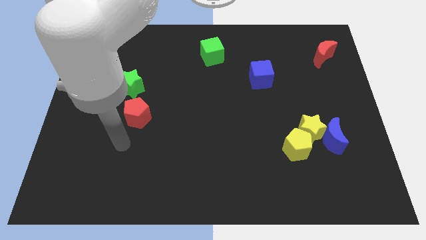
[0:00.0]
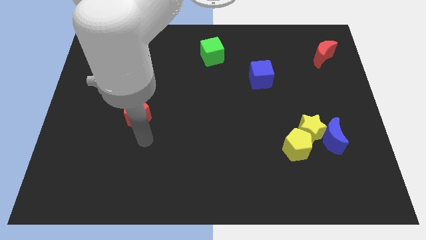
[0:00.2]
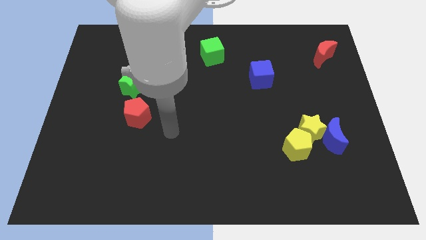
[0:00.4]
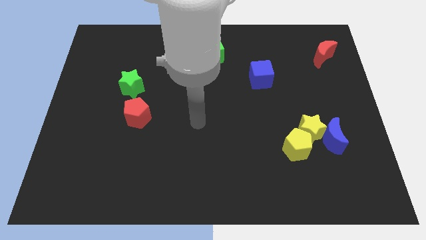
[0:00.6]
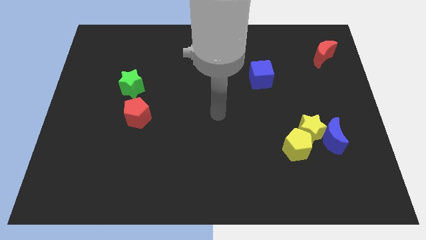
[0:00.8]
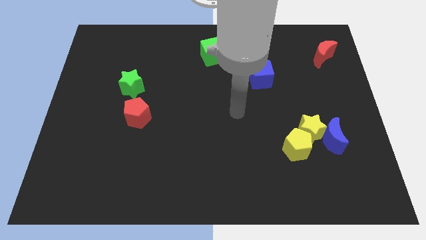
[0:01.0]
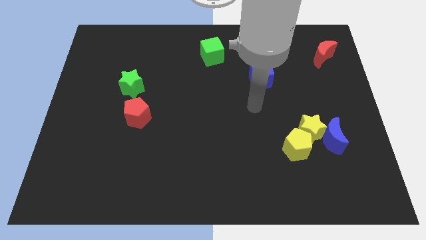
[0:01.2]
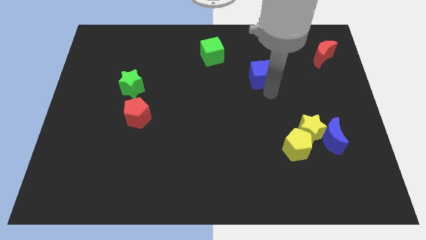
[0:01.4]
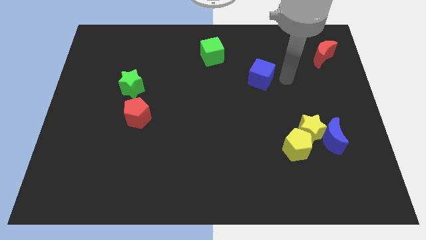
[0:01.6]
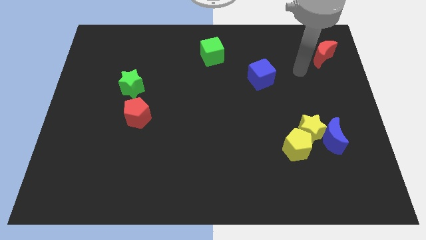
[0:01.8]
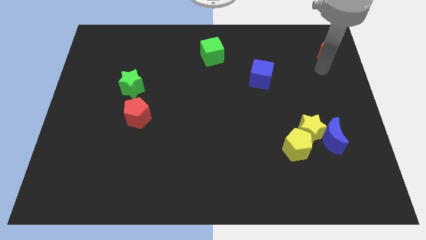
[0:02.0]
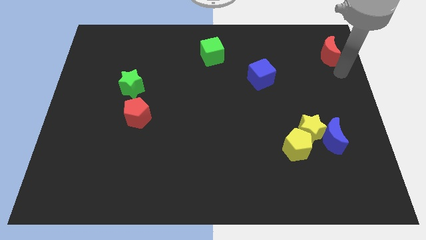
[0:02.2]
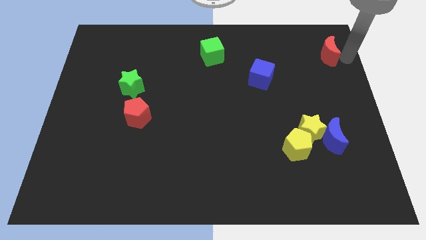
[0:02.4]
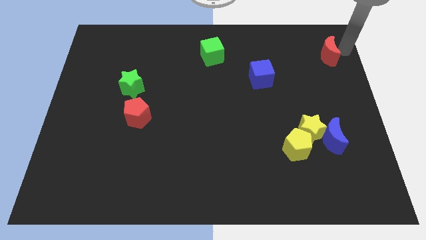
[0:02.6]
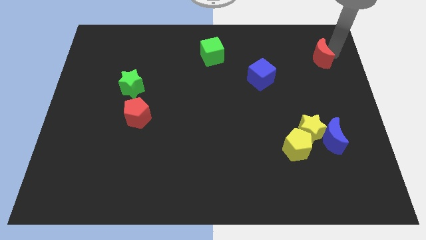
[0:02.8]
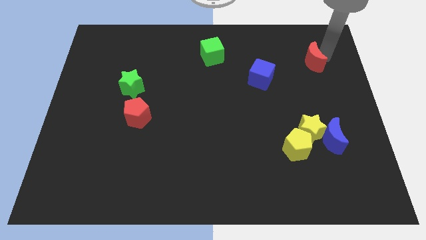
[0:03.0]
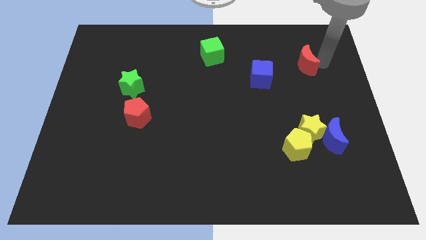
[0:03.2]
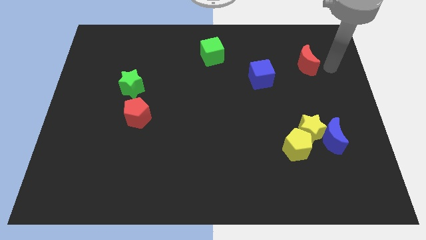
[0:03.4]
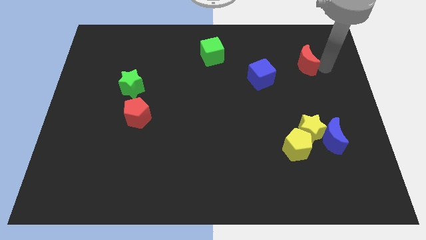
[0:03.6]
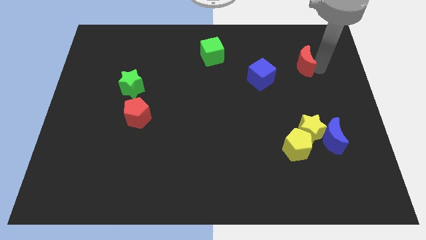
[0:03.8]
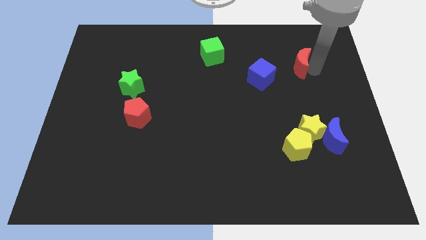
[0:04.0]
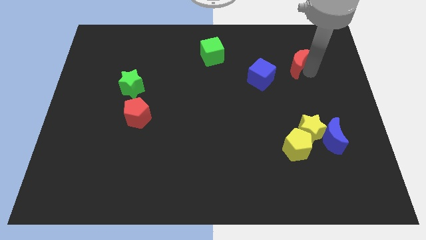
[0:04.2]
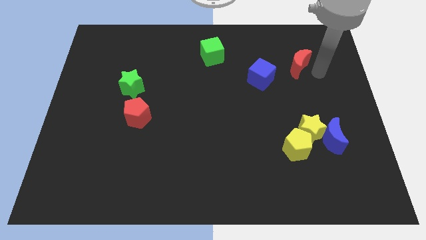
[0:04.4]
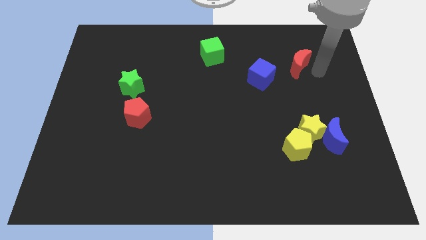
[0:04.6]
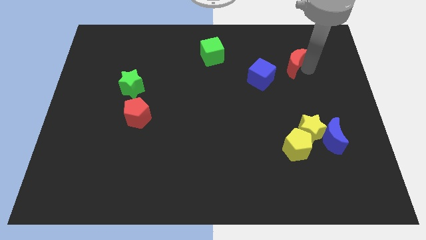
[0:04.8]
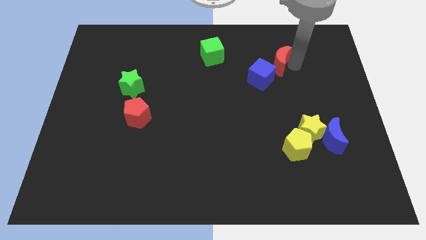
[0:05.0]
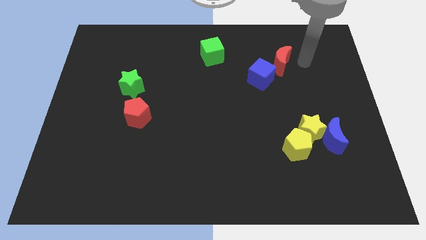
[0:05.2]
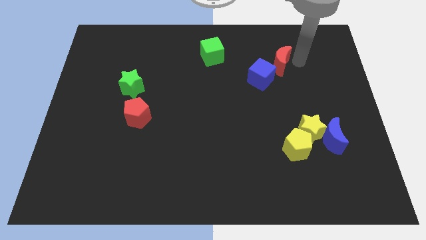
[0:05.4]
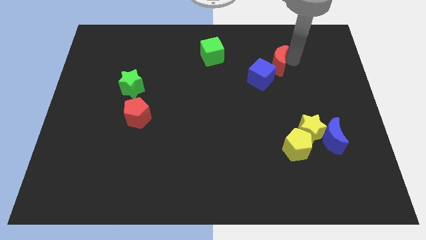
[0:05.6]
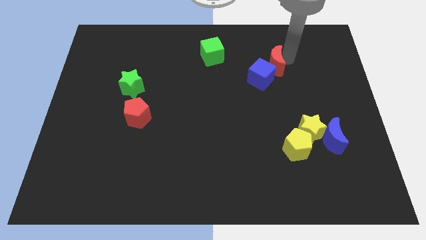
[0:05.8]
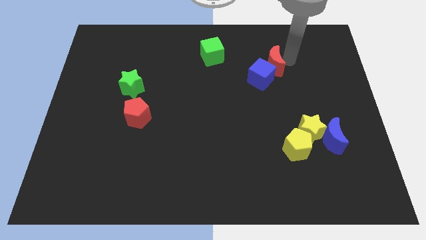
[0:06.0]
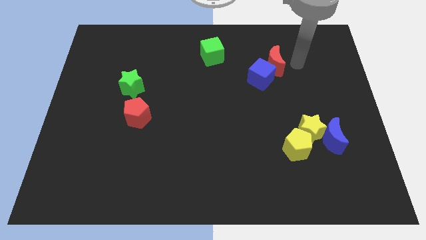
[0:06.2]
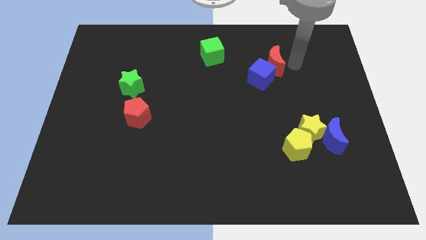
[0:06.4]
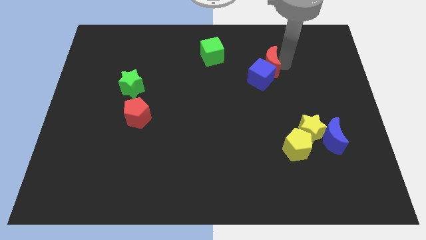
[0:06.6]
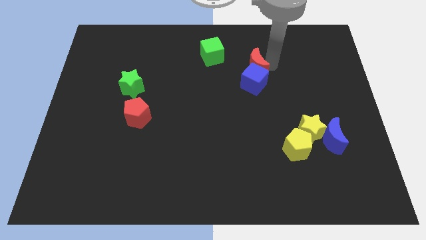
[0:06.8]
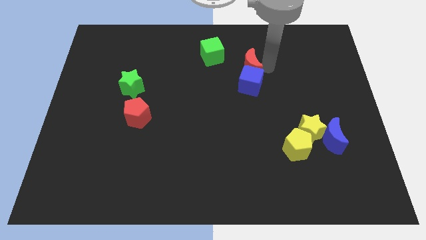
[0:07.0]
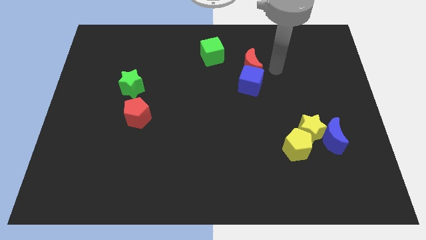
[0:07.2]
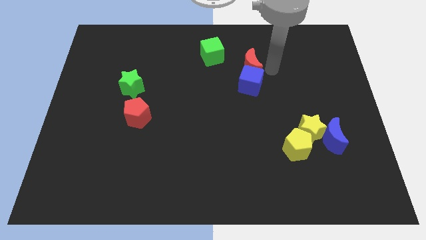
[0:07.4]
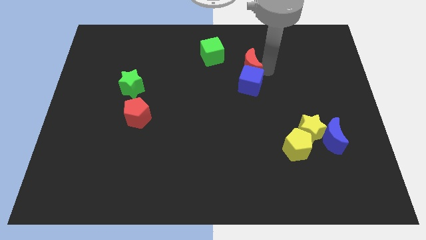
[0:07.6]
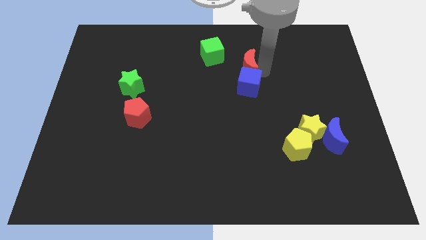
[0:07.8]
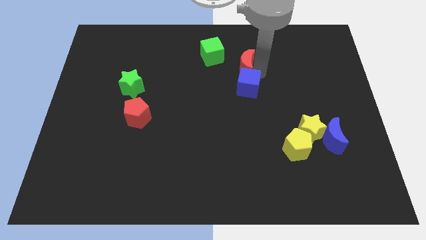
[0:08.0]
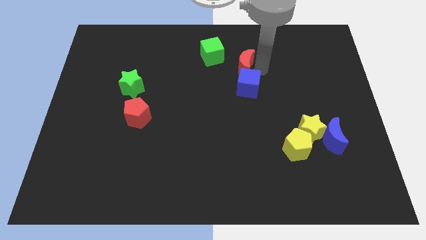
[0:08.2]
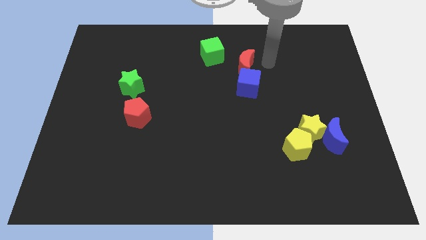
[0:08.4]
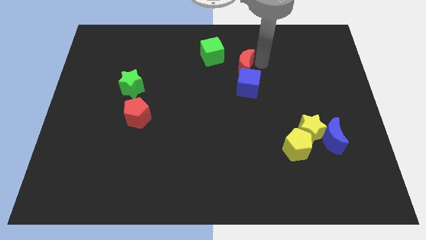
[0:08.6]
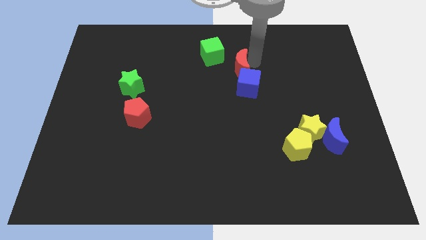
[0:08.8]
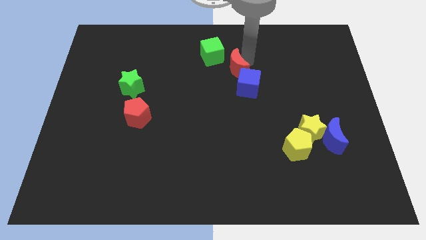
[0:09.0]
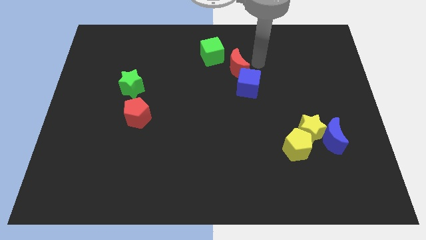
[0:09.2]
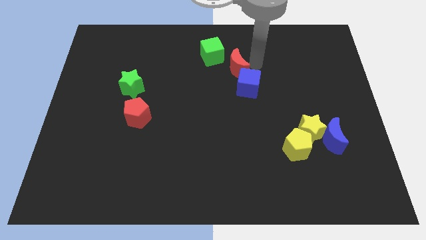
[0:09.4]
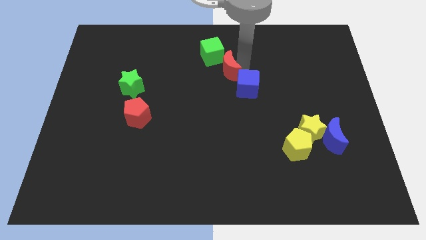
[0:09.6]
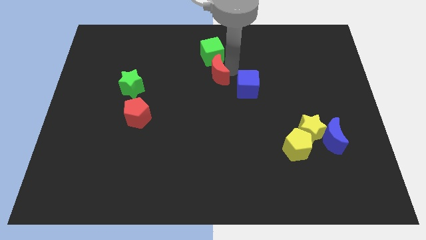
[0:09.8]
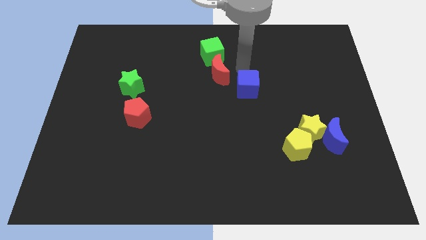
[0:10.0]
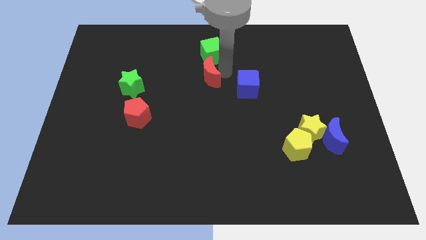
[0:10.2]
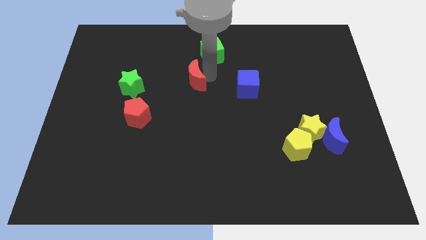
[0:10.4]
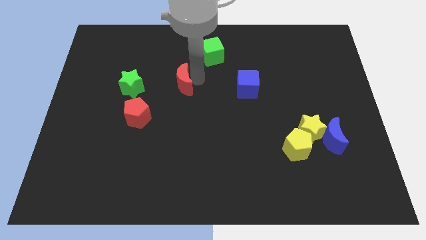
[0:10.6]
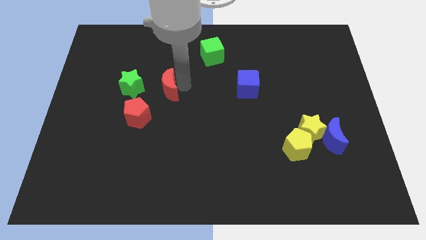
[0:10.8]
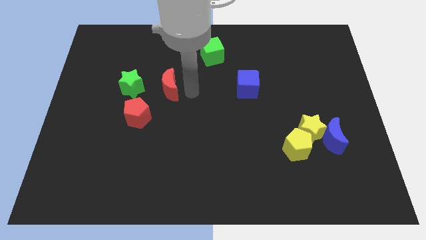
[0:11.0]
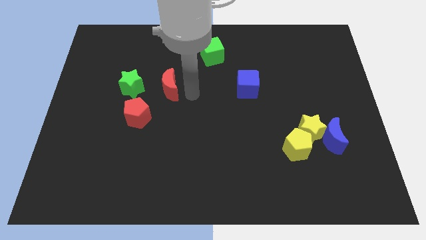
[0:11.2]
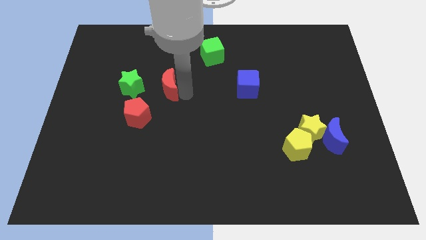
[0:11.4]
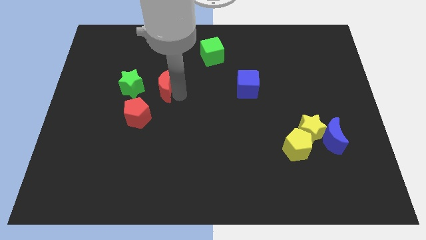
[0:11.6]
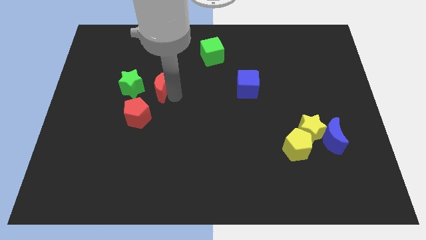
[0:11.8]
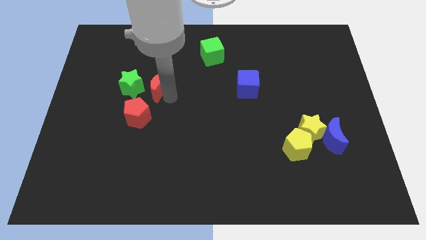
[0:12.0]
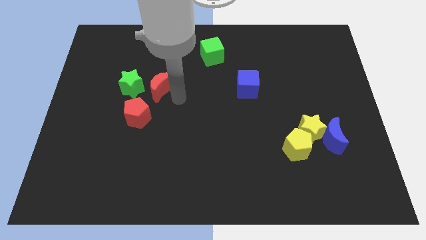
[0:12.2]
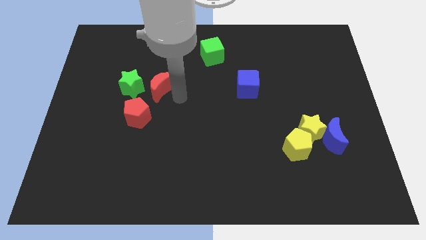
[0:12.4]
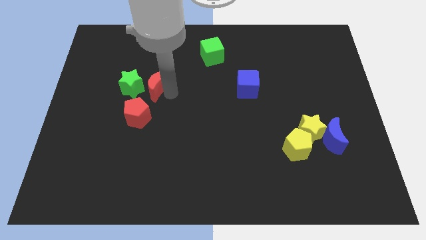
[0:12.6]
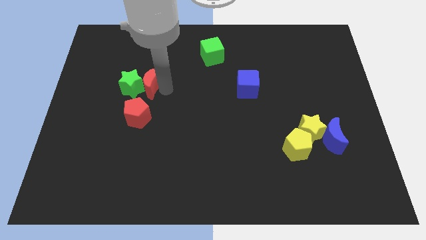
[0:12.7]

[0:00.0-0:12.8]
push the red moon next to the green star

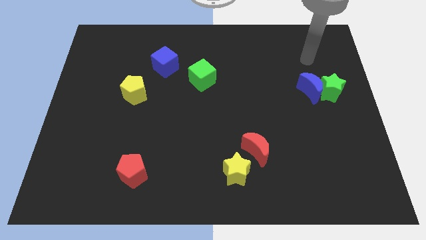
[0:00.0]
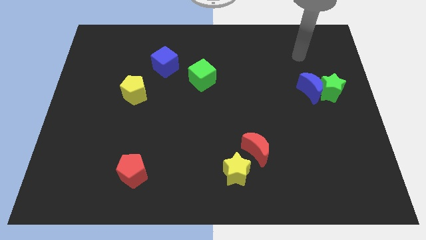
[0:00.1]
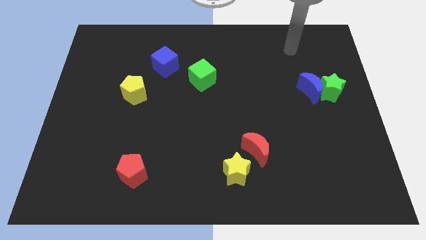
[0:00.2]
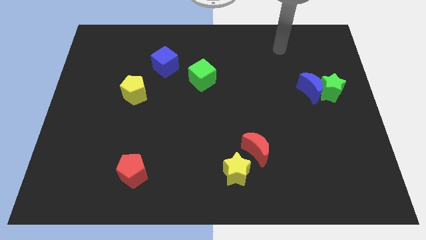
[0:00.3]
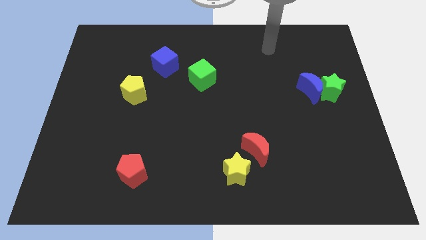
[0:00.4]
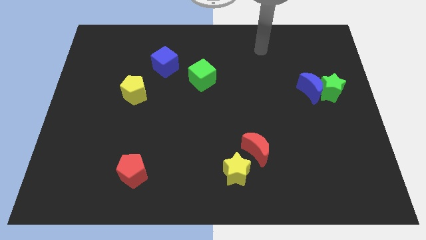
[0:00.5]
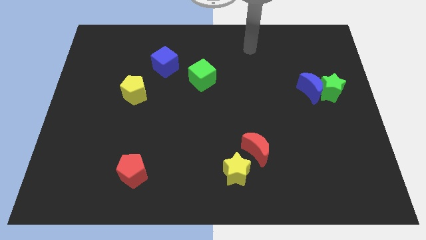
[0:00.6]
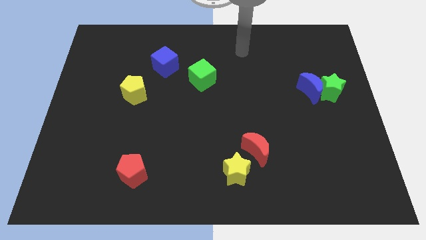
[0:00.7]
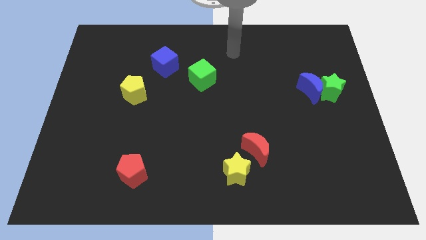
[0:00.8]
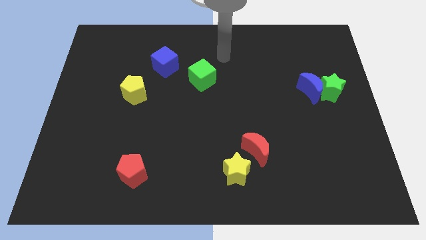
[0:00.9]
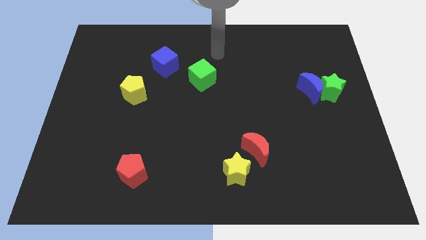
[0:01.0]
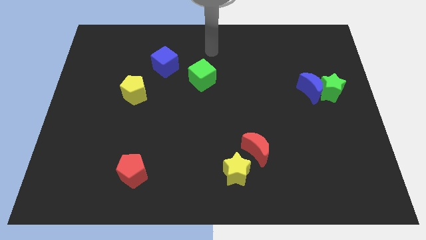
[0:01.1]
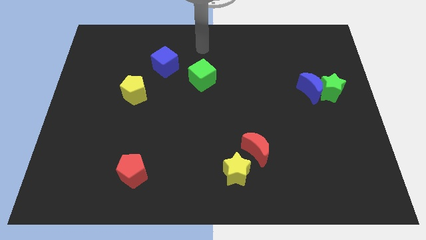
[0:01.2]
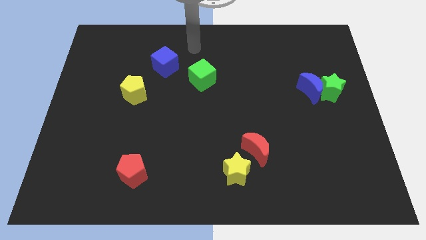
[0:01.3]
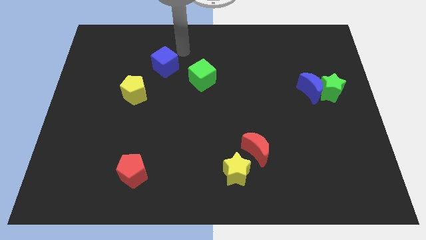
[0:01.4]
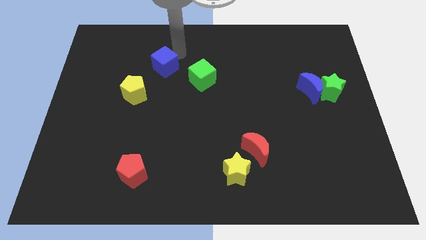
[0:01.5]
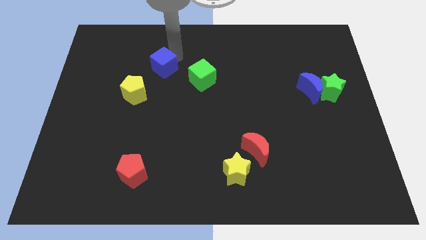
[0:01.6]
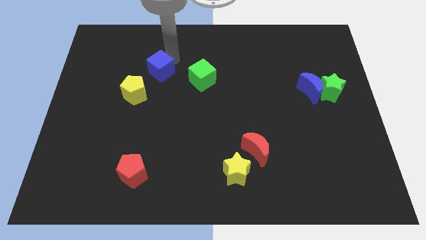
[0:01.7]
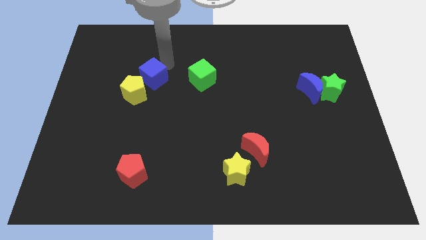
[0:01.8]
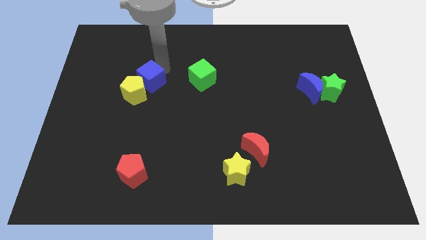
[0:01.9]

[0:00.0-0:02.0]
move the blue cube close to the yellow pentagon
